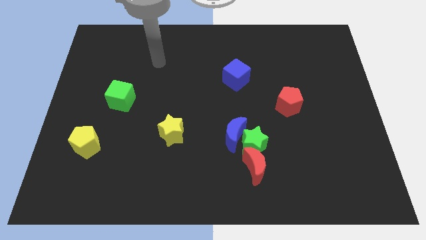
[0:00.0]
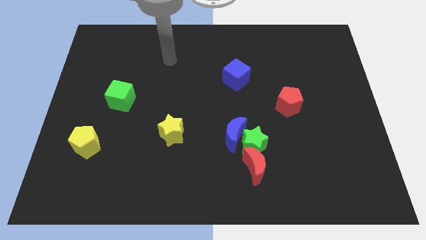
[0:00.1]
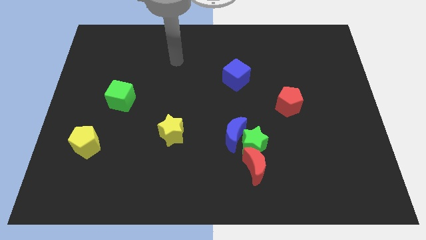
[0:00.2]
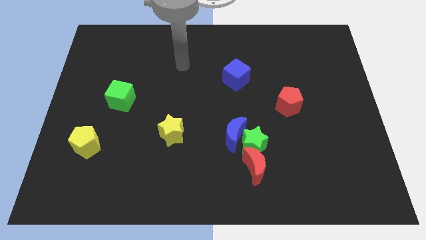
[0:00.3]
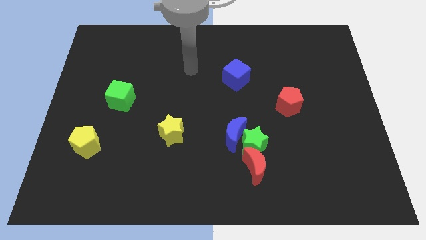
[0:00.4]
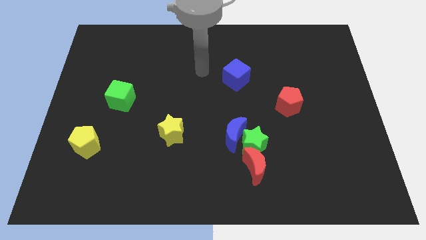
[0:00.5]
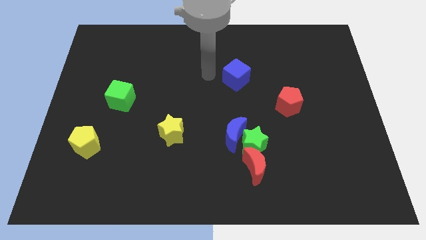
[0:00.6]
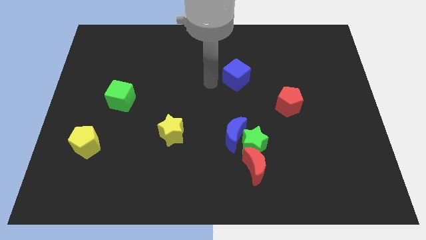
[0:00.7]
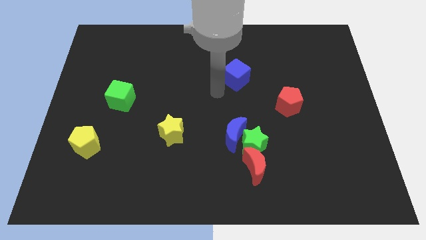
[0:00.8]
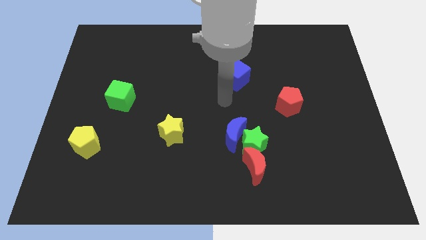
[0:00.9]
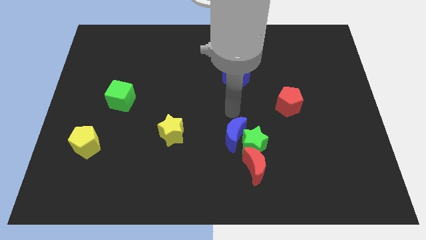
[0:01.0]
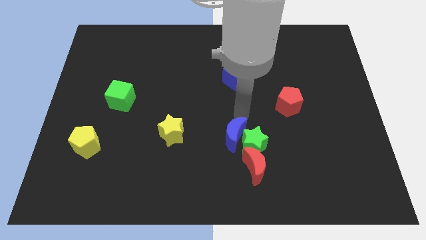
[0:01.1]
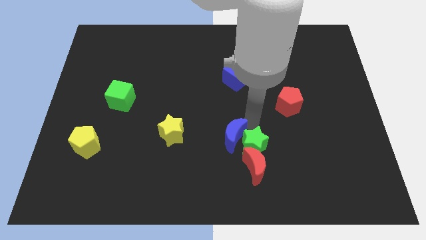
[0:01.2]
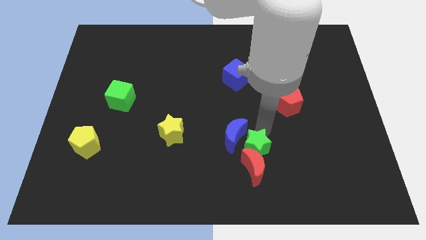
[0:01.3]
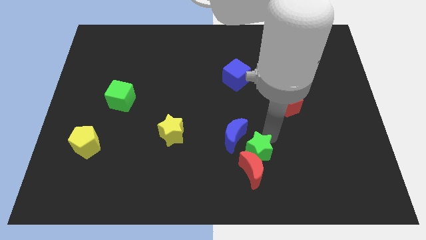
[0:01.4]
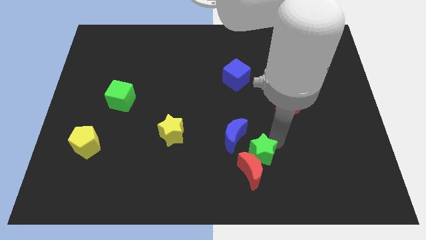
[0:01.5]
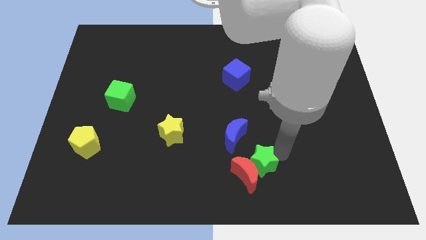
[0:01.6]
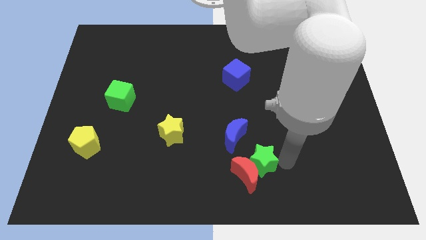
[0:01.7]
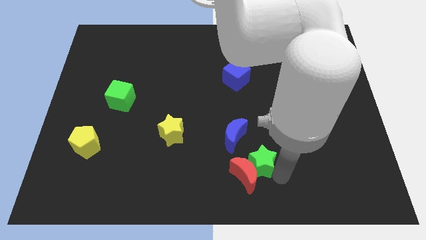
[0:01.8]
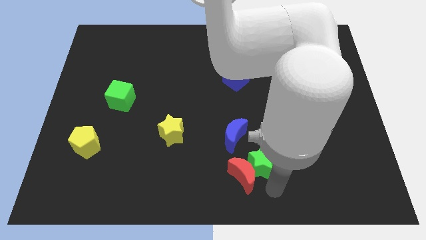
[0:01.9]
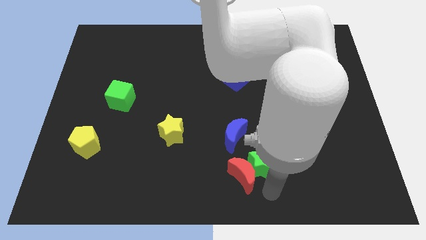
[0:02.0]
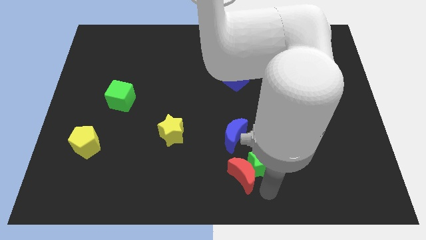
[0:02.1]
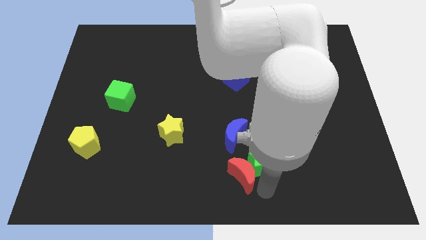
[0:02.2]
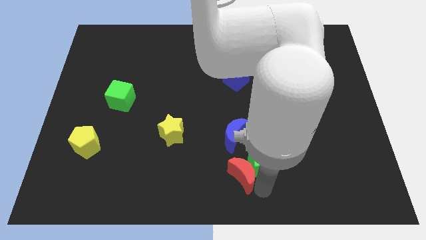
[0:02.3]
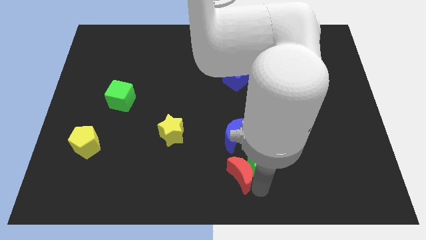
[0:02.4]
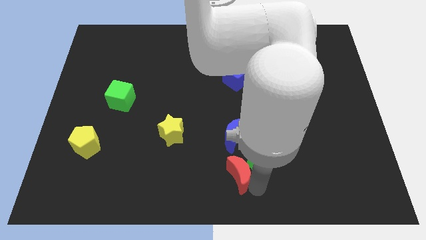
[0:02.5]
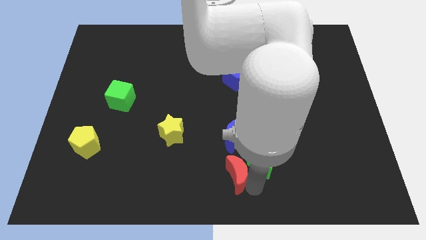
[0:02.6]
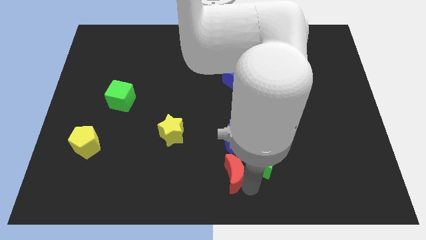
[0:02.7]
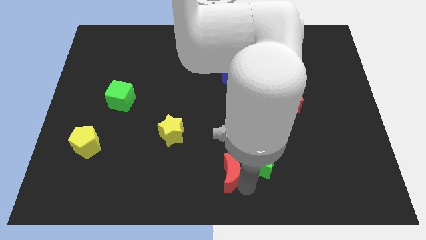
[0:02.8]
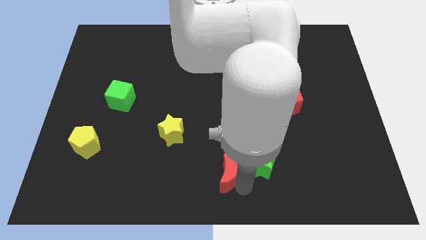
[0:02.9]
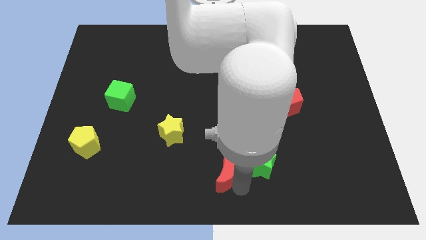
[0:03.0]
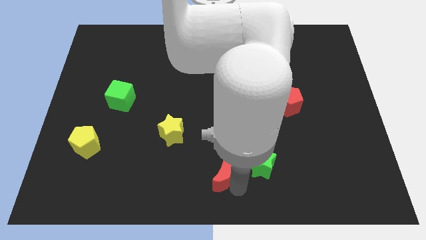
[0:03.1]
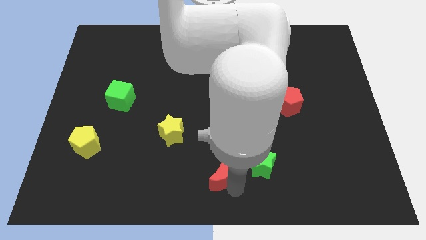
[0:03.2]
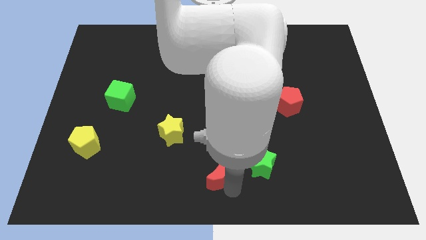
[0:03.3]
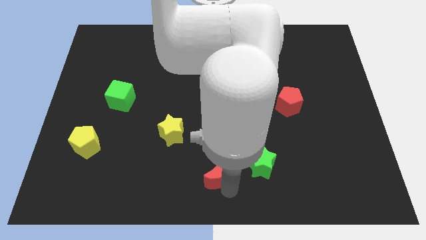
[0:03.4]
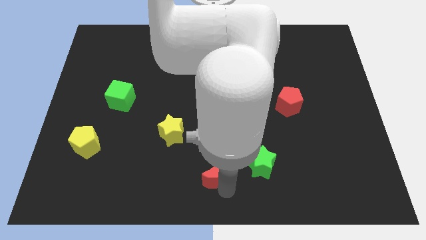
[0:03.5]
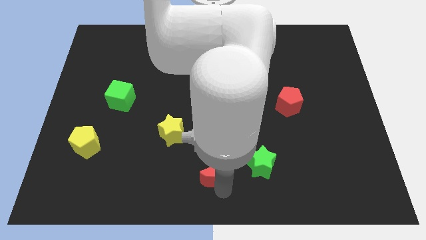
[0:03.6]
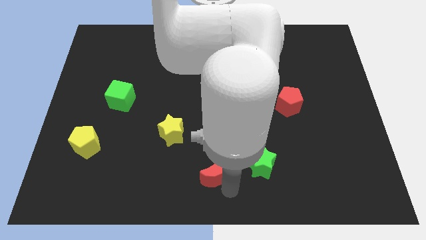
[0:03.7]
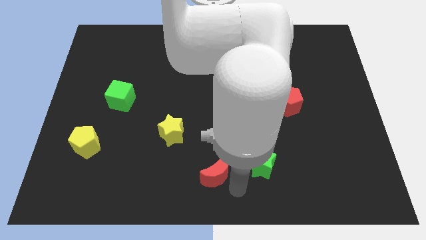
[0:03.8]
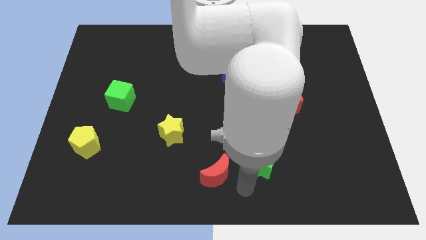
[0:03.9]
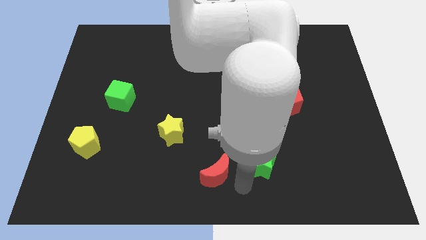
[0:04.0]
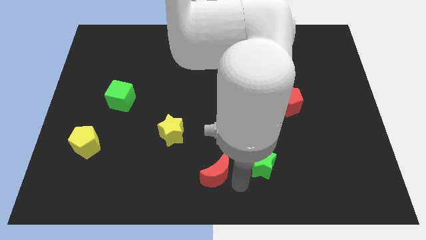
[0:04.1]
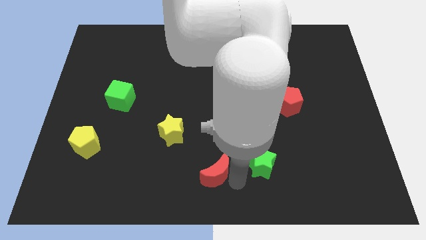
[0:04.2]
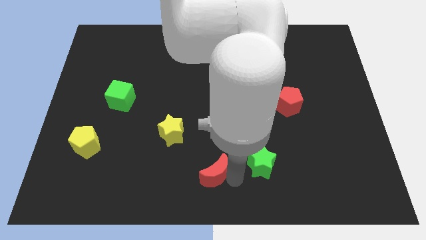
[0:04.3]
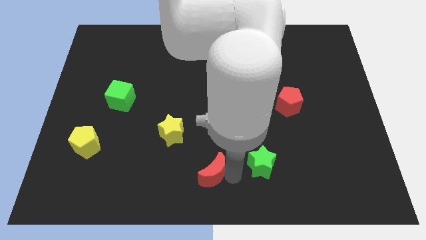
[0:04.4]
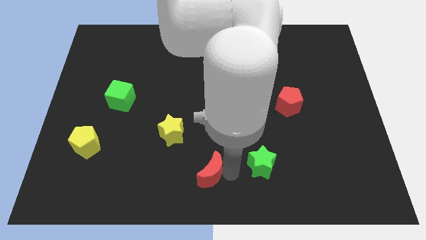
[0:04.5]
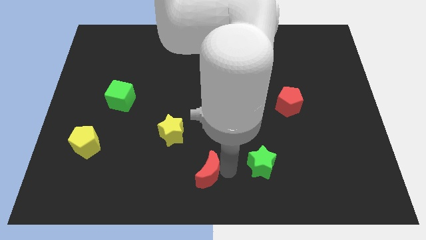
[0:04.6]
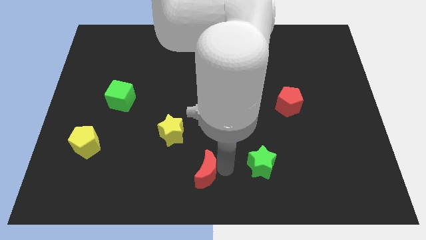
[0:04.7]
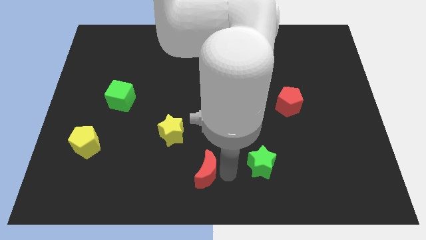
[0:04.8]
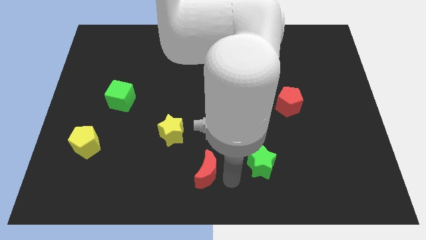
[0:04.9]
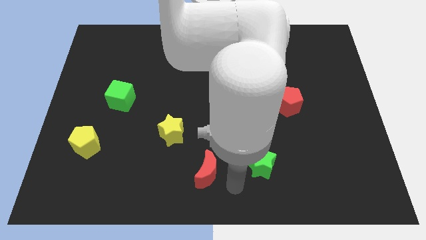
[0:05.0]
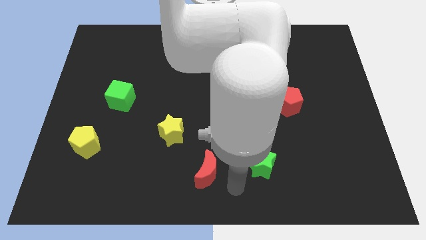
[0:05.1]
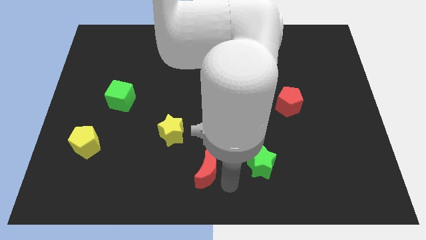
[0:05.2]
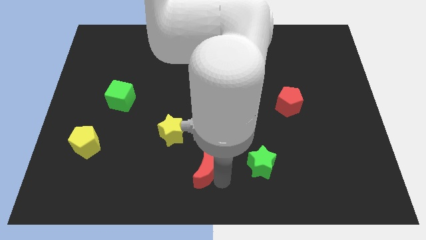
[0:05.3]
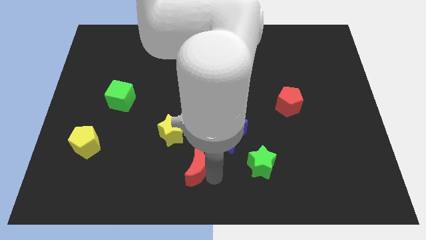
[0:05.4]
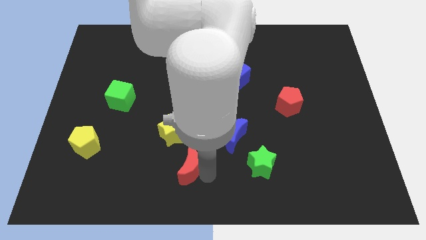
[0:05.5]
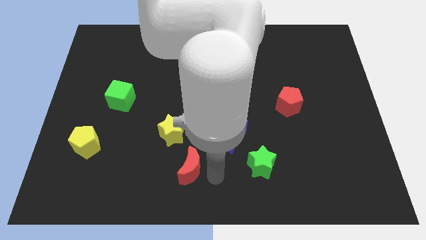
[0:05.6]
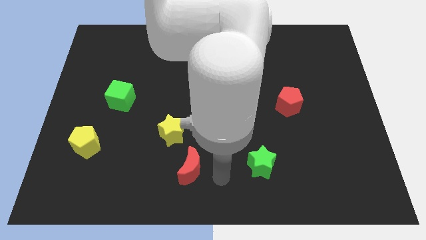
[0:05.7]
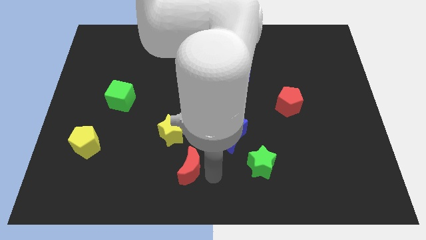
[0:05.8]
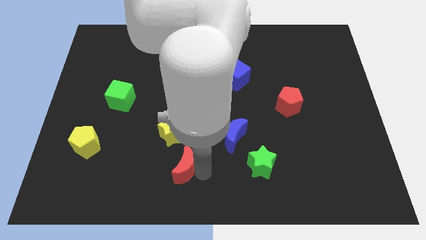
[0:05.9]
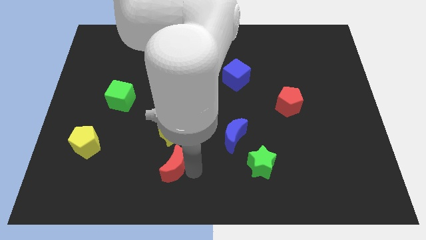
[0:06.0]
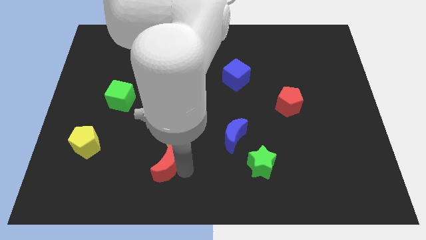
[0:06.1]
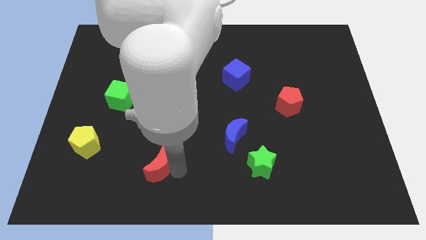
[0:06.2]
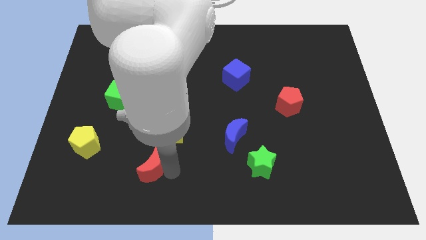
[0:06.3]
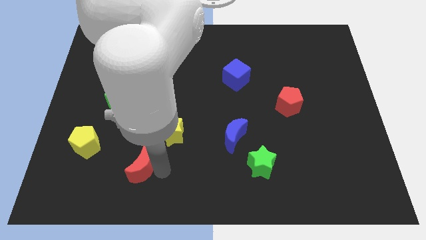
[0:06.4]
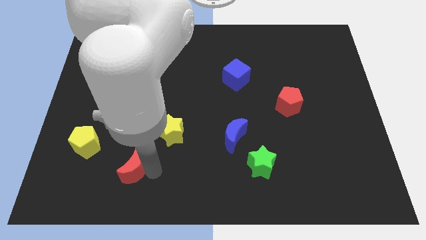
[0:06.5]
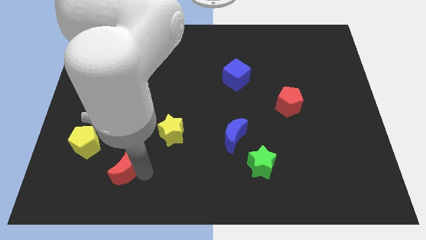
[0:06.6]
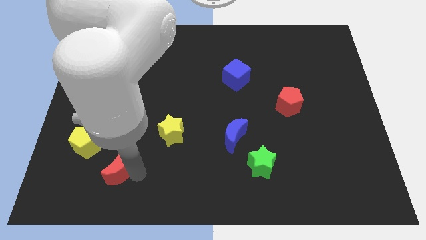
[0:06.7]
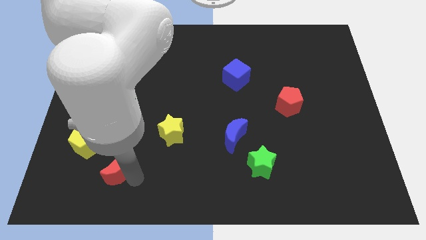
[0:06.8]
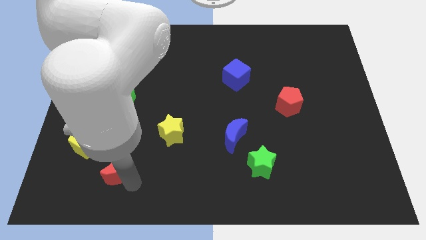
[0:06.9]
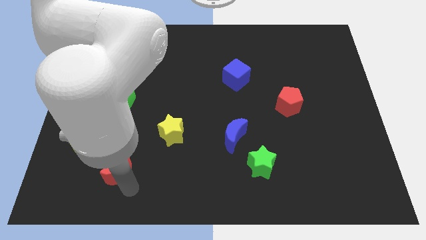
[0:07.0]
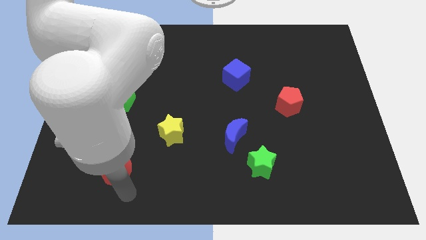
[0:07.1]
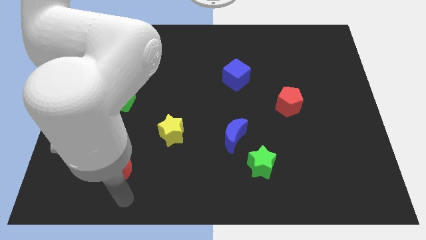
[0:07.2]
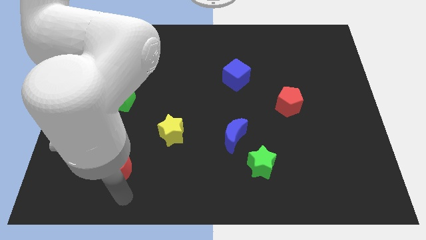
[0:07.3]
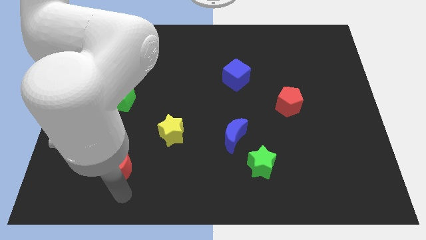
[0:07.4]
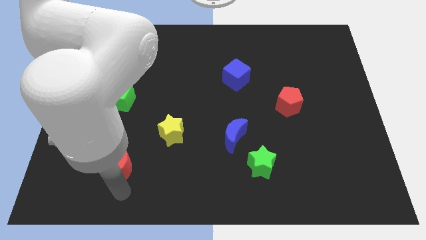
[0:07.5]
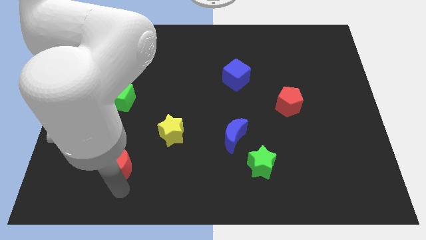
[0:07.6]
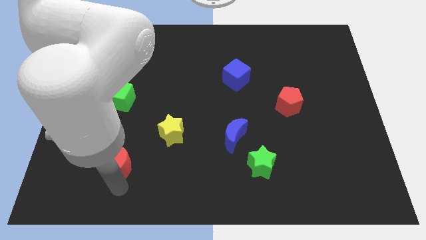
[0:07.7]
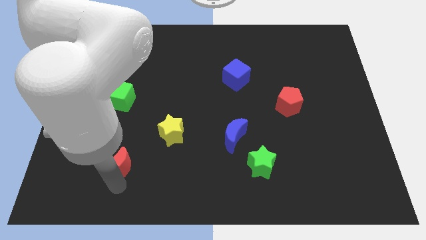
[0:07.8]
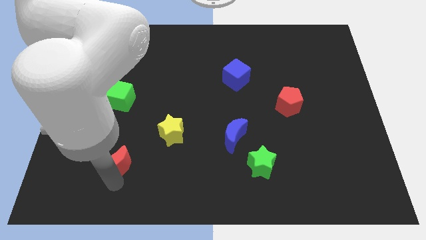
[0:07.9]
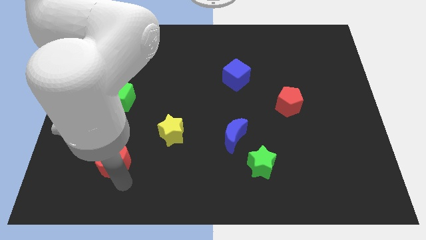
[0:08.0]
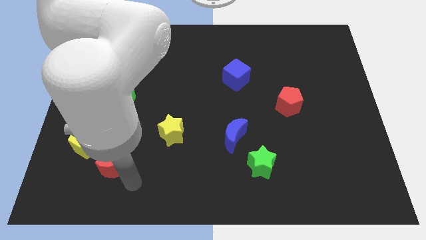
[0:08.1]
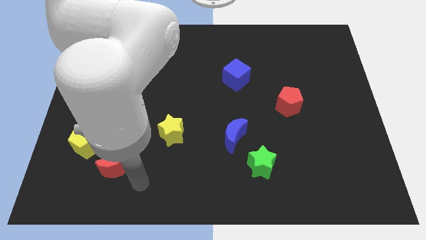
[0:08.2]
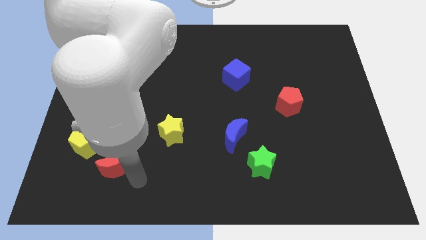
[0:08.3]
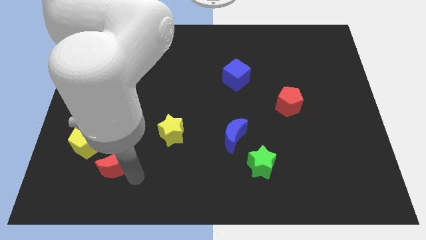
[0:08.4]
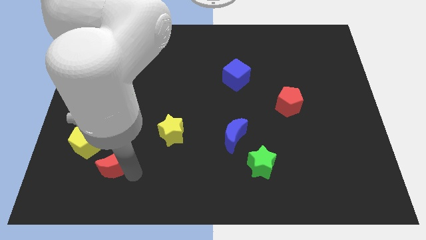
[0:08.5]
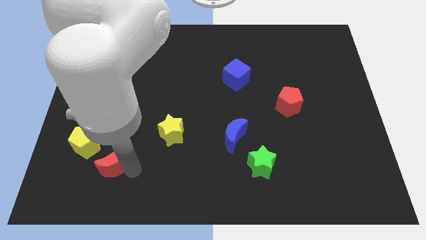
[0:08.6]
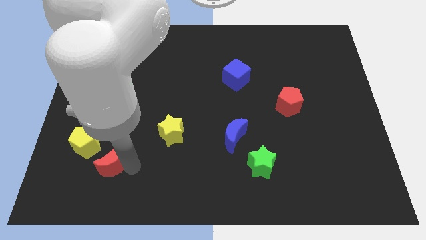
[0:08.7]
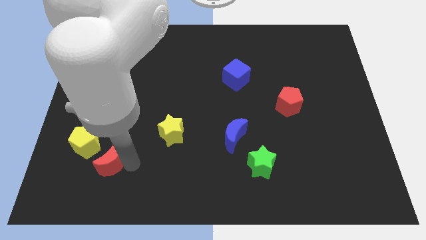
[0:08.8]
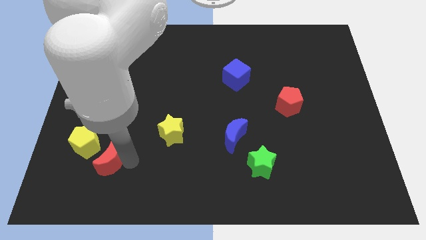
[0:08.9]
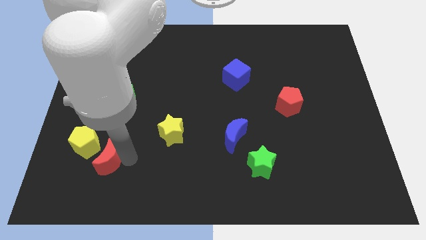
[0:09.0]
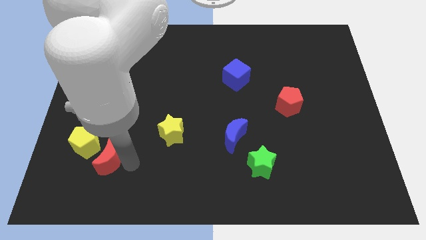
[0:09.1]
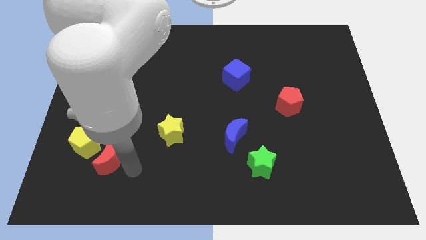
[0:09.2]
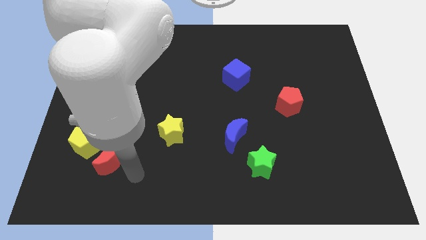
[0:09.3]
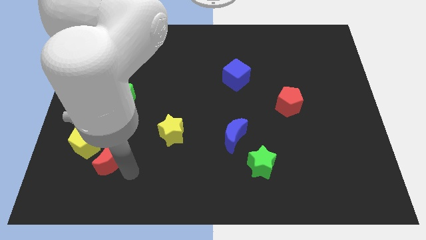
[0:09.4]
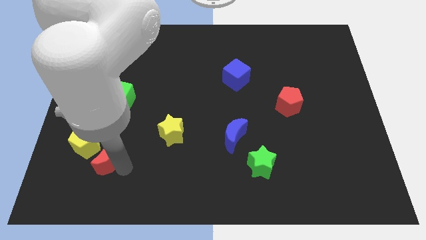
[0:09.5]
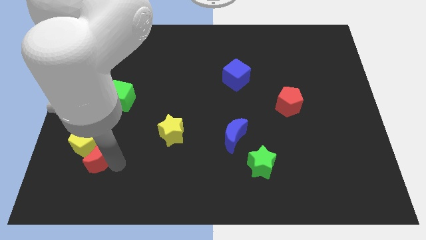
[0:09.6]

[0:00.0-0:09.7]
put the red moon next to the yellow pentagon
